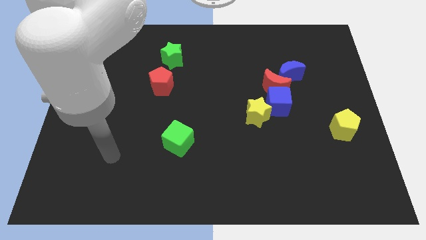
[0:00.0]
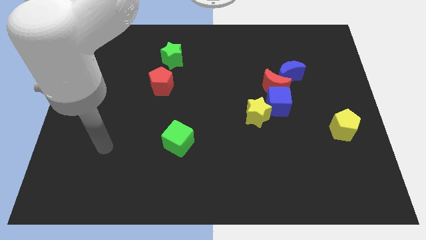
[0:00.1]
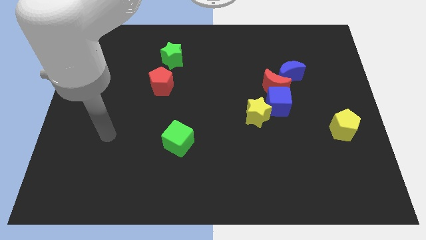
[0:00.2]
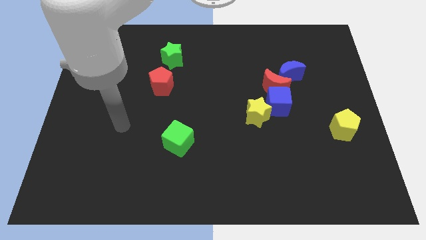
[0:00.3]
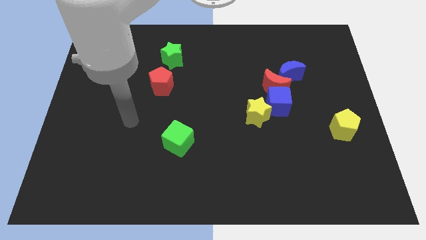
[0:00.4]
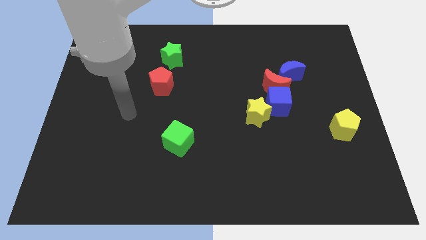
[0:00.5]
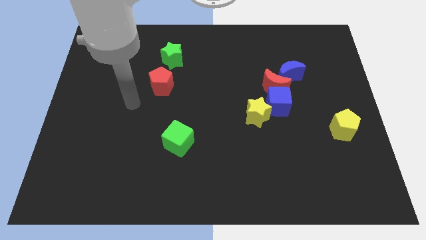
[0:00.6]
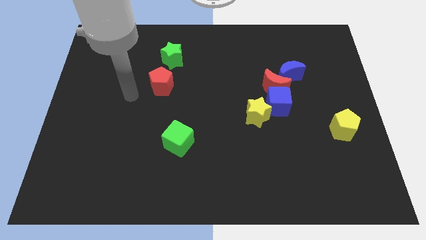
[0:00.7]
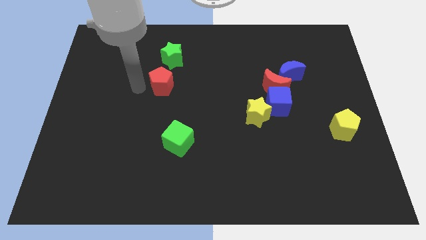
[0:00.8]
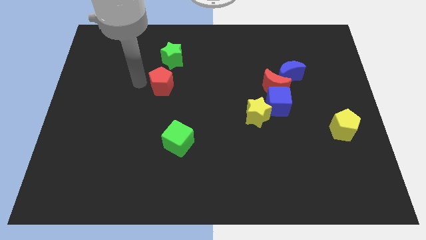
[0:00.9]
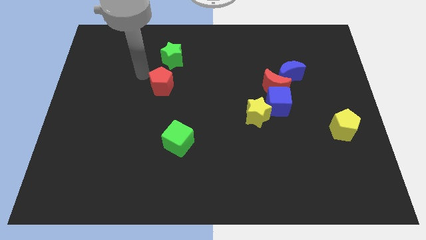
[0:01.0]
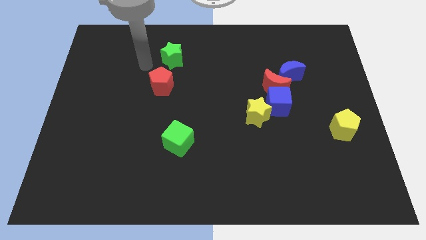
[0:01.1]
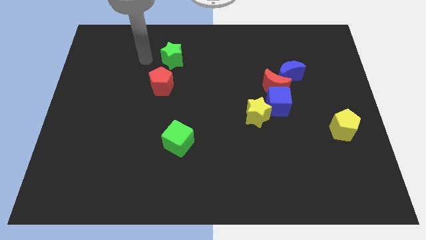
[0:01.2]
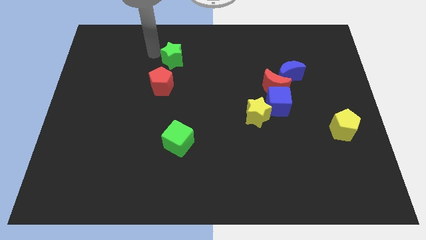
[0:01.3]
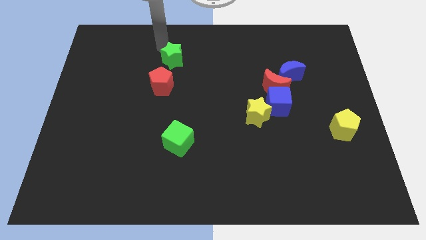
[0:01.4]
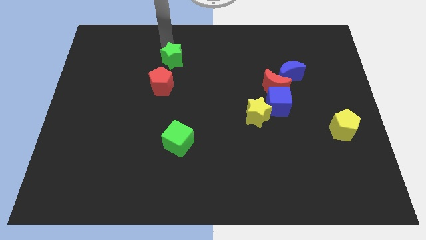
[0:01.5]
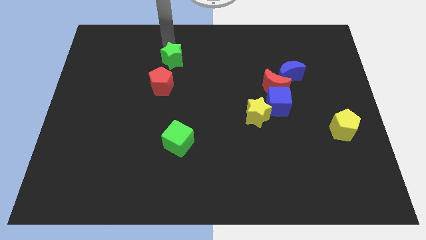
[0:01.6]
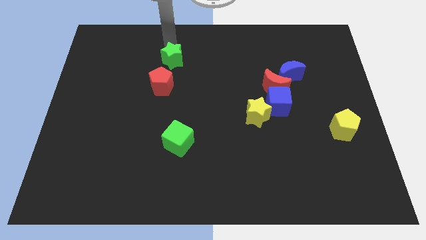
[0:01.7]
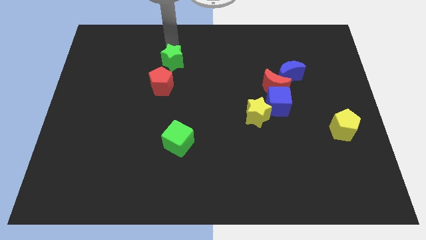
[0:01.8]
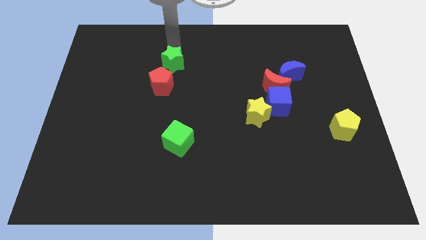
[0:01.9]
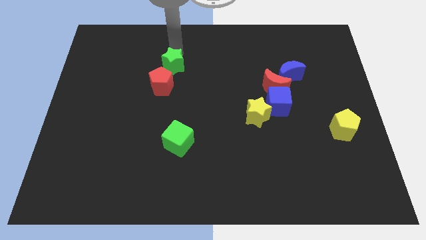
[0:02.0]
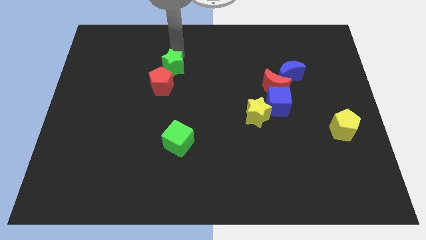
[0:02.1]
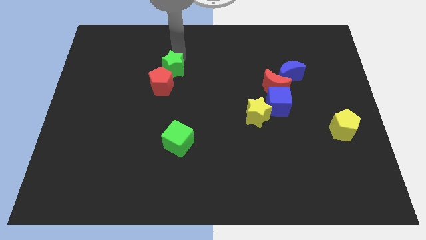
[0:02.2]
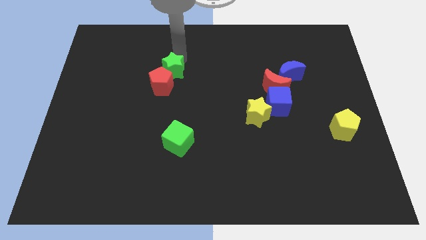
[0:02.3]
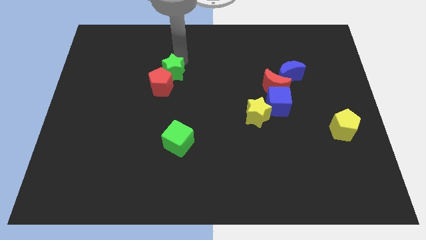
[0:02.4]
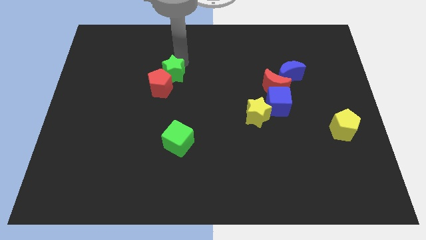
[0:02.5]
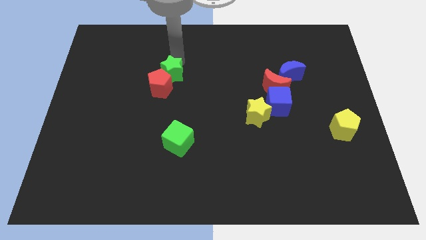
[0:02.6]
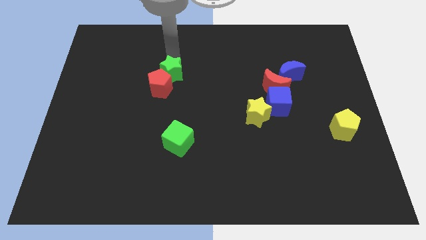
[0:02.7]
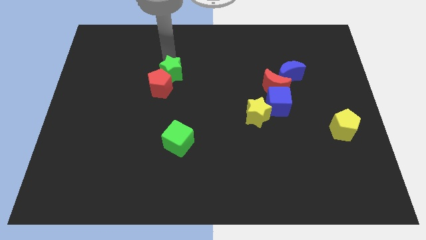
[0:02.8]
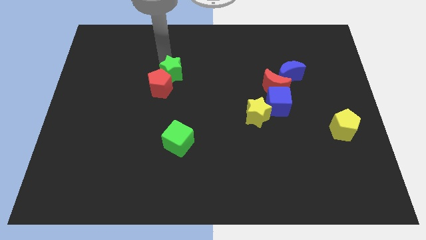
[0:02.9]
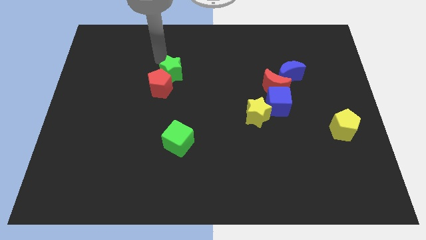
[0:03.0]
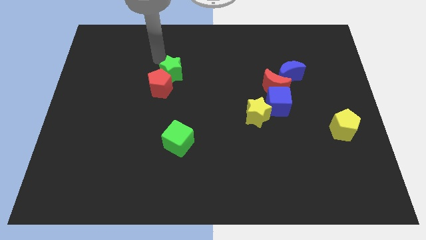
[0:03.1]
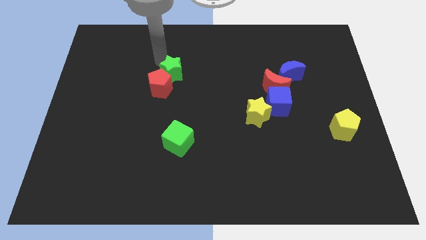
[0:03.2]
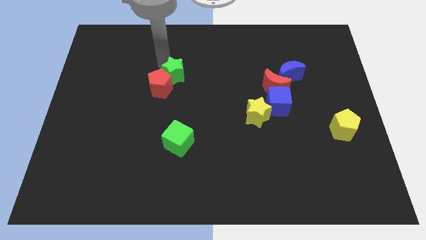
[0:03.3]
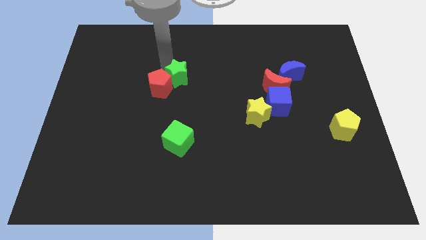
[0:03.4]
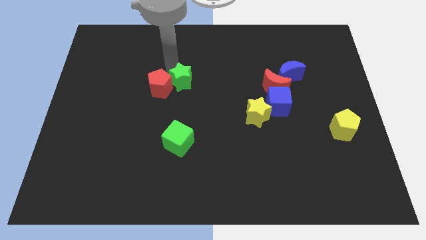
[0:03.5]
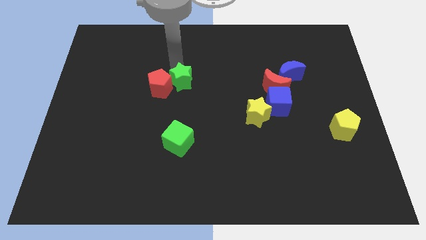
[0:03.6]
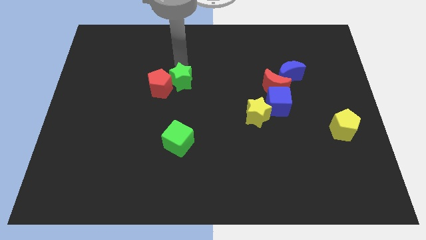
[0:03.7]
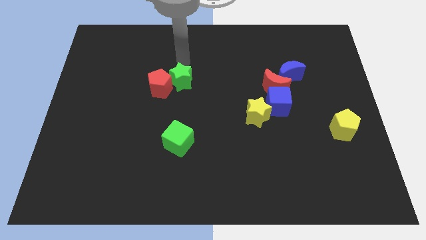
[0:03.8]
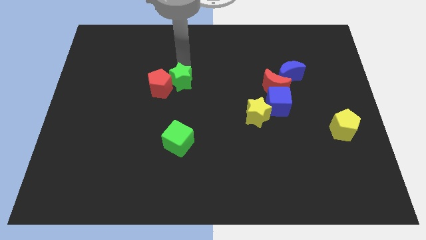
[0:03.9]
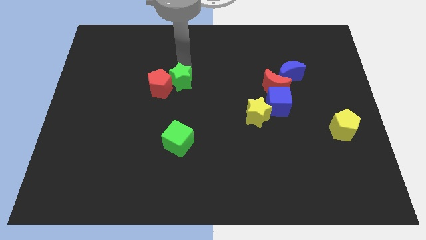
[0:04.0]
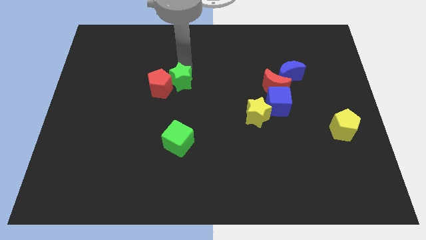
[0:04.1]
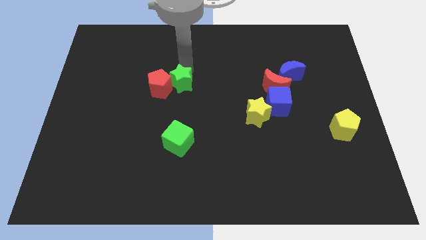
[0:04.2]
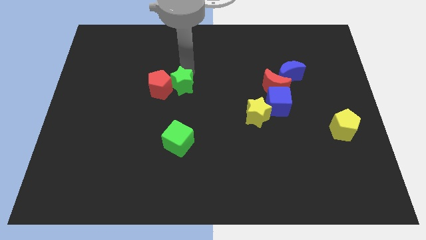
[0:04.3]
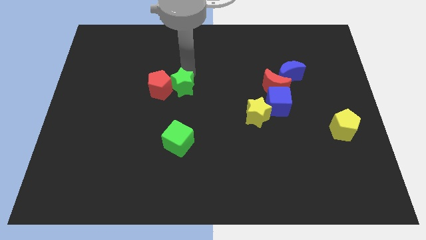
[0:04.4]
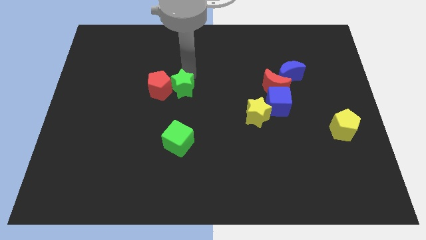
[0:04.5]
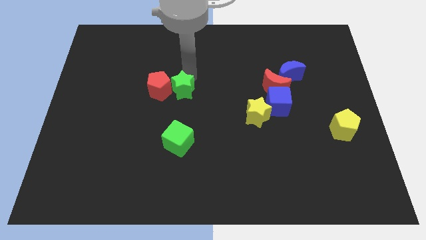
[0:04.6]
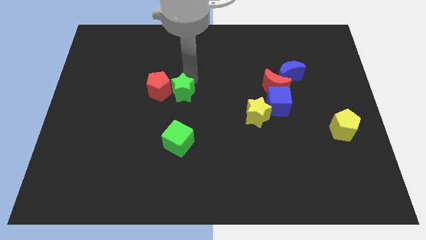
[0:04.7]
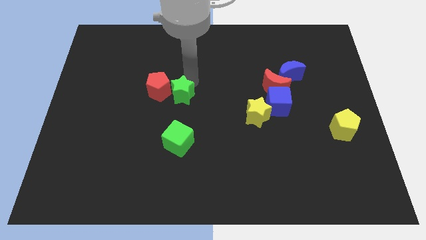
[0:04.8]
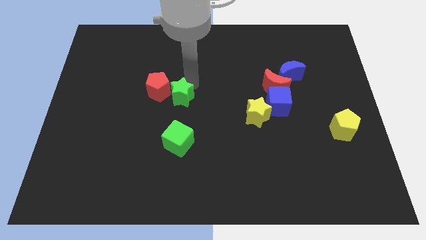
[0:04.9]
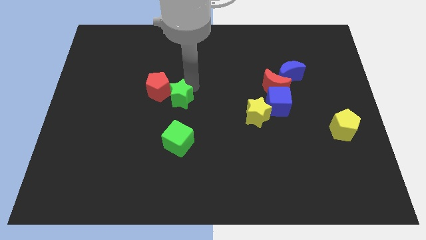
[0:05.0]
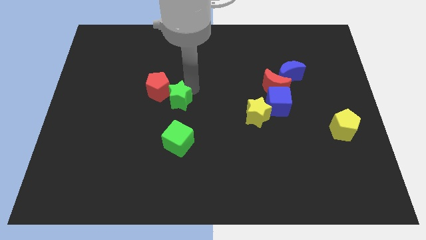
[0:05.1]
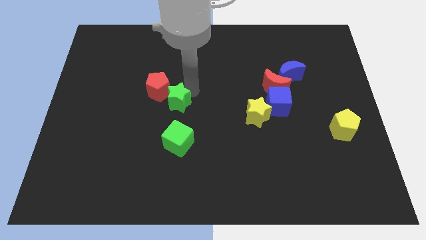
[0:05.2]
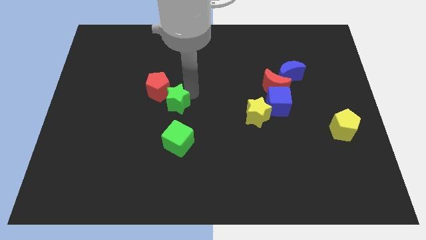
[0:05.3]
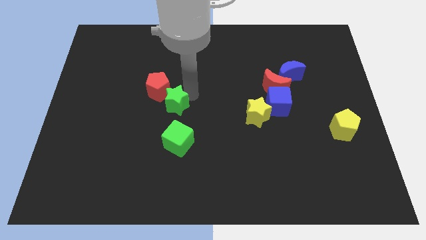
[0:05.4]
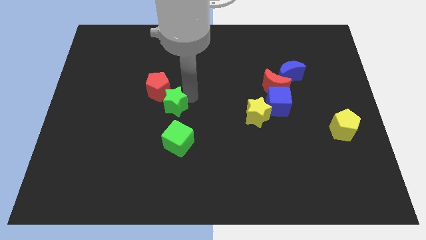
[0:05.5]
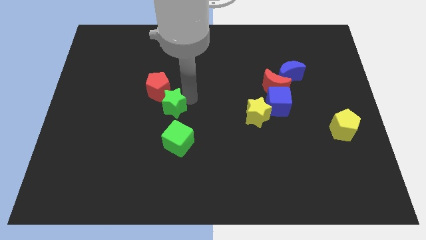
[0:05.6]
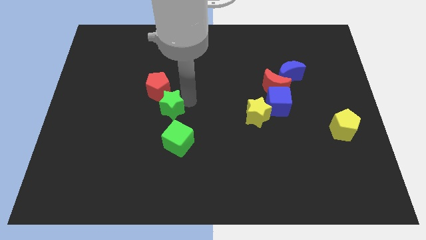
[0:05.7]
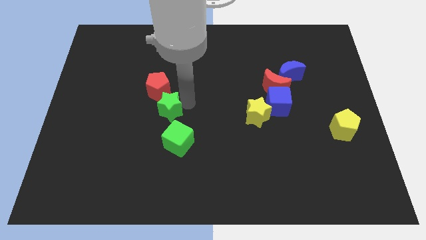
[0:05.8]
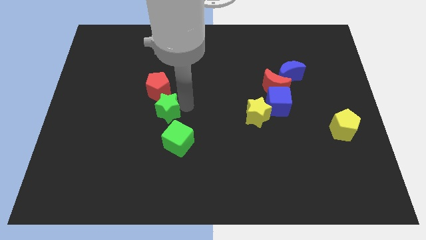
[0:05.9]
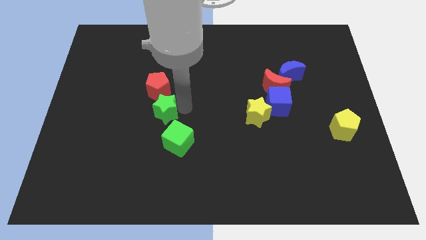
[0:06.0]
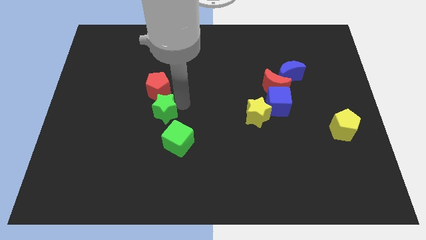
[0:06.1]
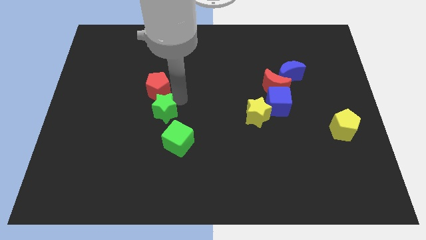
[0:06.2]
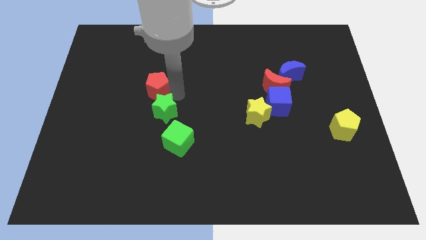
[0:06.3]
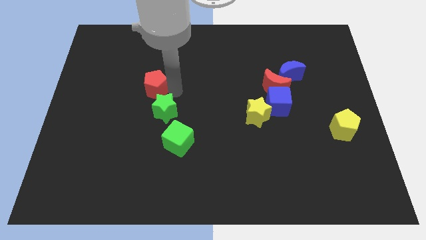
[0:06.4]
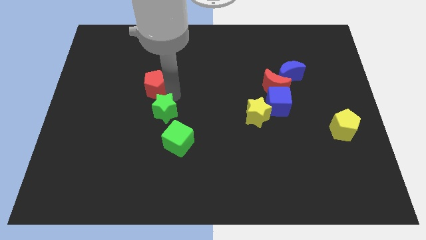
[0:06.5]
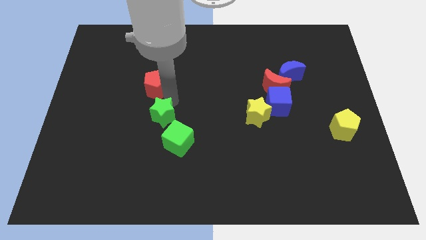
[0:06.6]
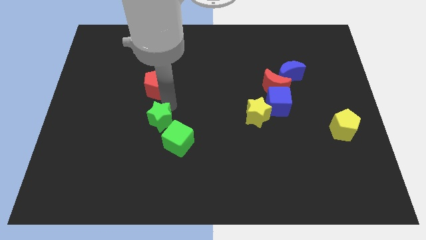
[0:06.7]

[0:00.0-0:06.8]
slide the green star down

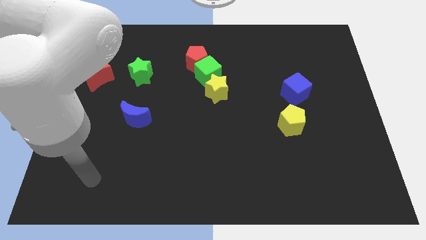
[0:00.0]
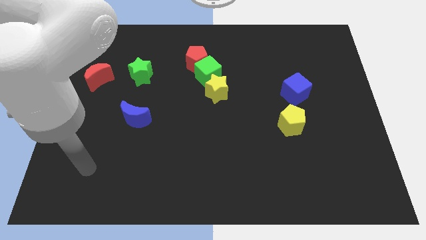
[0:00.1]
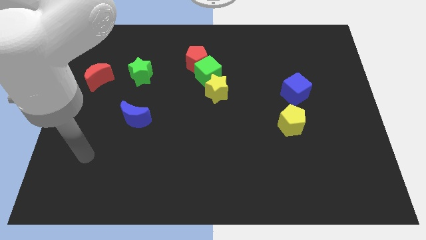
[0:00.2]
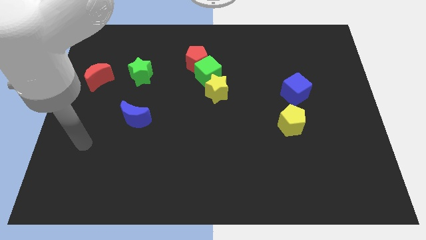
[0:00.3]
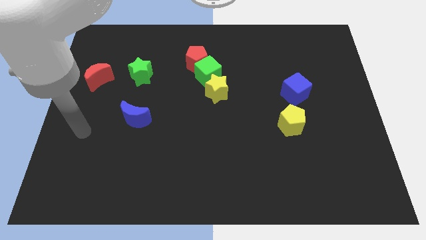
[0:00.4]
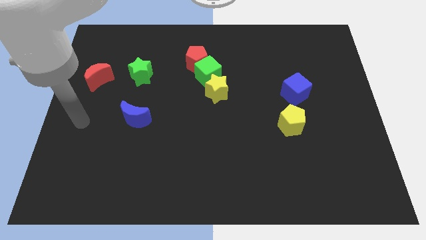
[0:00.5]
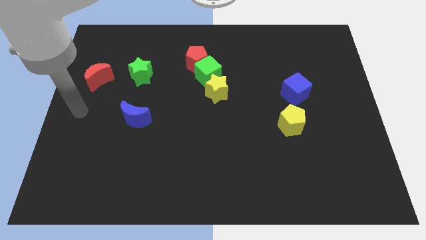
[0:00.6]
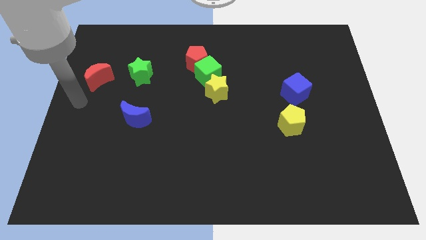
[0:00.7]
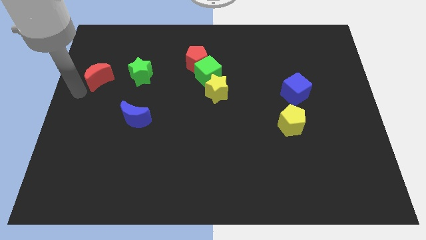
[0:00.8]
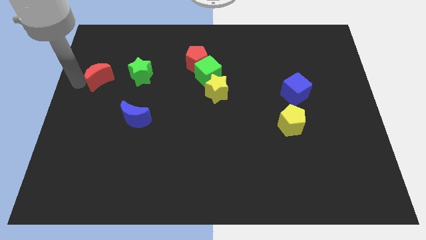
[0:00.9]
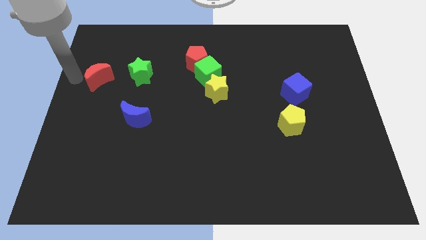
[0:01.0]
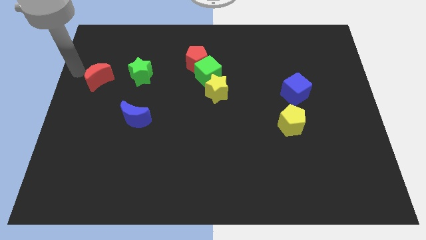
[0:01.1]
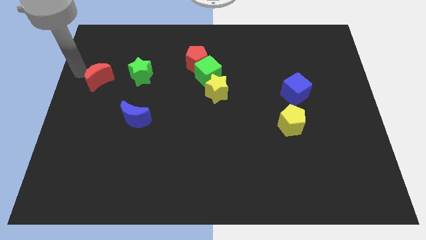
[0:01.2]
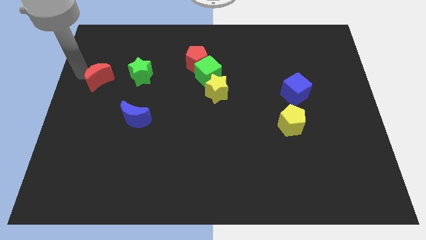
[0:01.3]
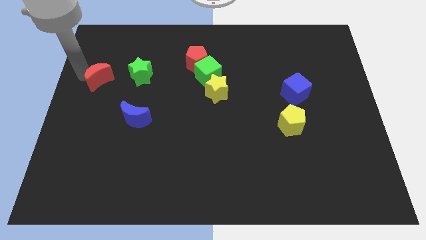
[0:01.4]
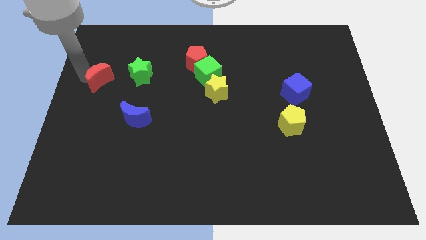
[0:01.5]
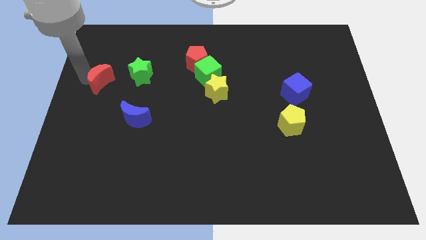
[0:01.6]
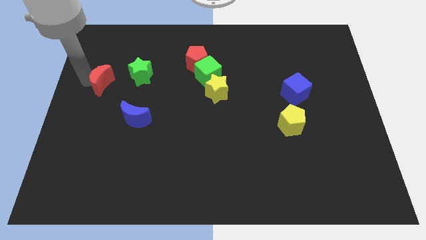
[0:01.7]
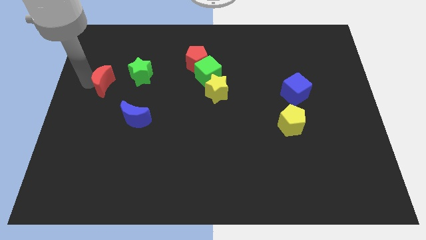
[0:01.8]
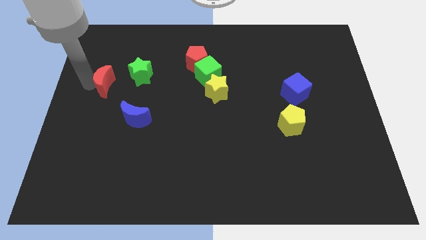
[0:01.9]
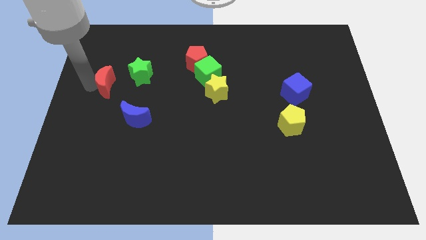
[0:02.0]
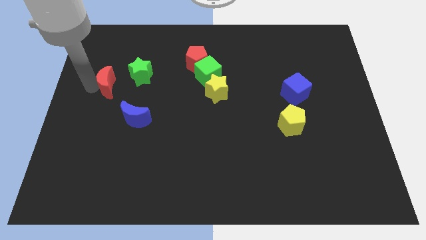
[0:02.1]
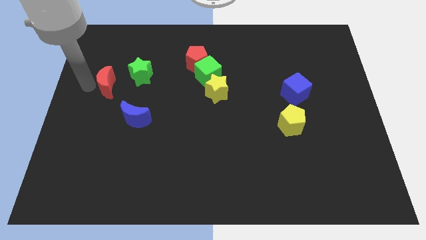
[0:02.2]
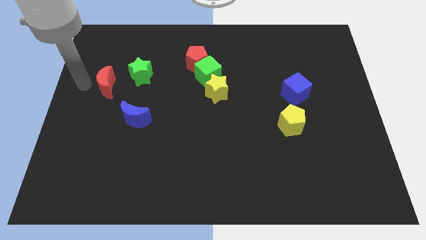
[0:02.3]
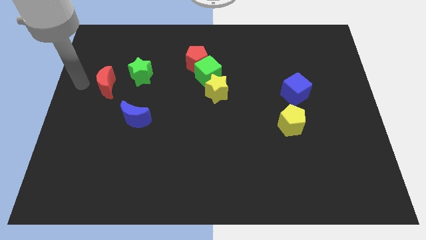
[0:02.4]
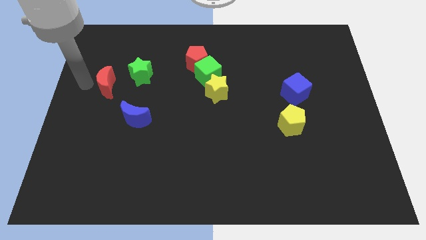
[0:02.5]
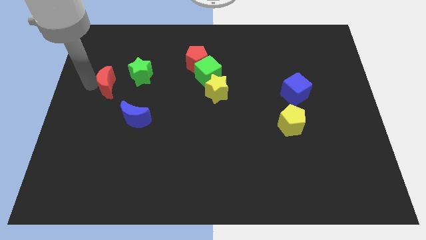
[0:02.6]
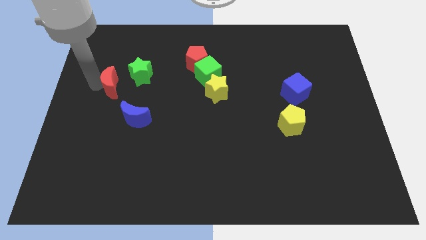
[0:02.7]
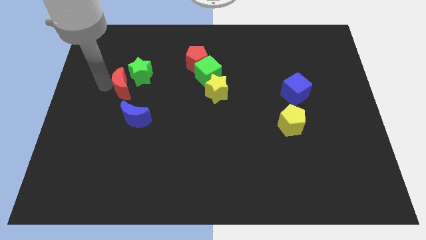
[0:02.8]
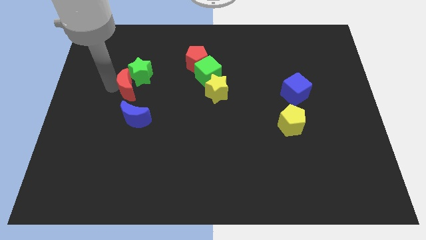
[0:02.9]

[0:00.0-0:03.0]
move the red moon to the right somewhat
